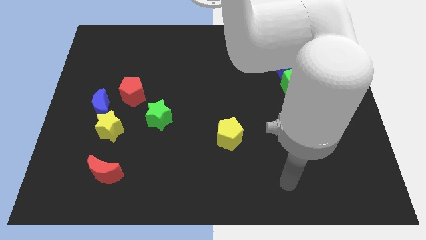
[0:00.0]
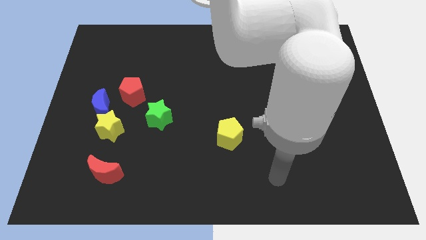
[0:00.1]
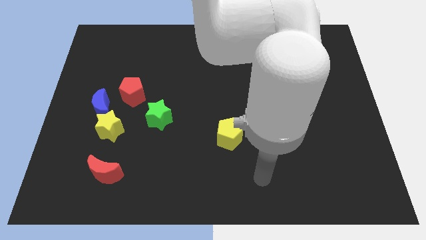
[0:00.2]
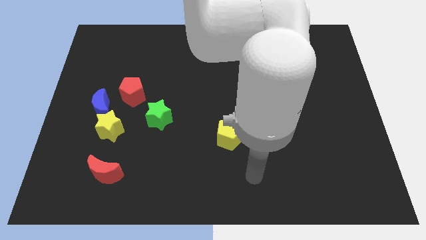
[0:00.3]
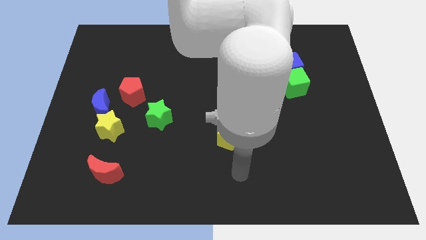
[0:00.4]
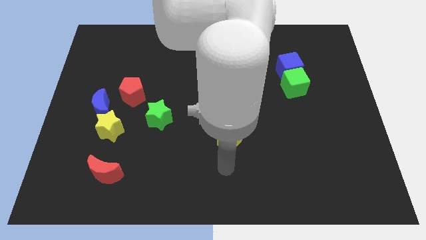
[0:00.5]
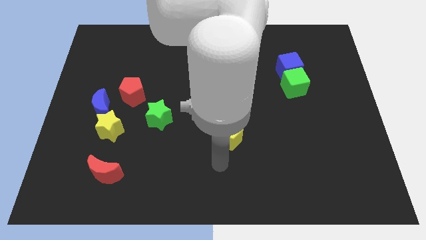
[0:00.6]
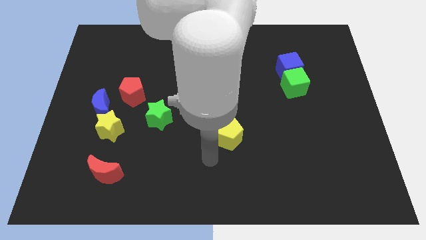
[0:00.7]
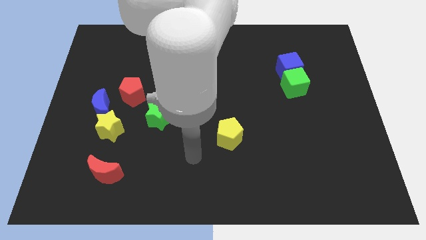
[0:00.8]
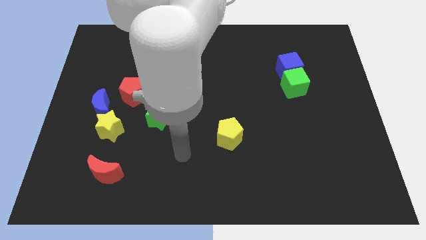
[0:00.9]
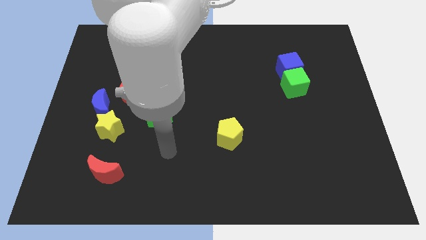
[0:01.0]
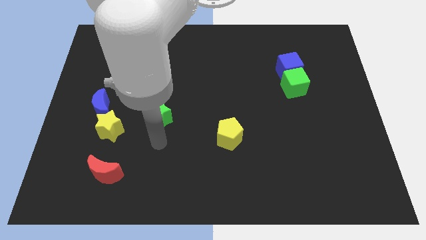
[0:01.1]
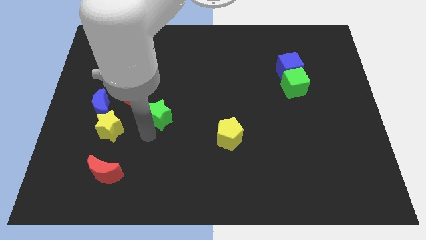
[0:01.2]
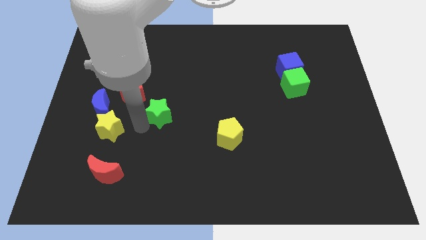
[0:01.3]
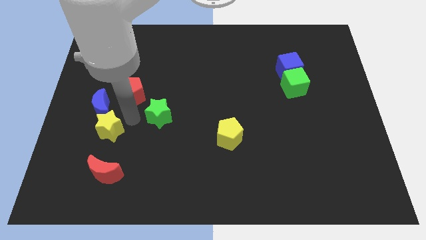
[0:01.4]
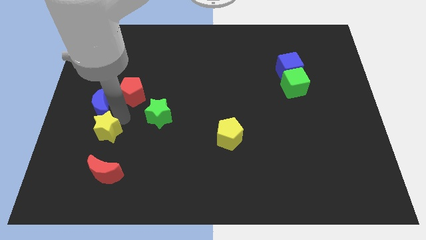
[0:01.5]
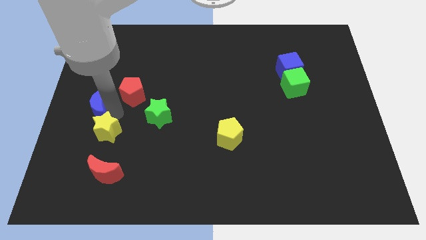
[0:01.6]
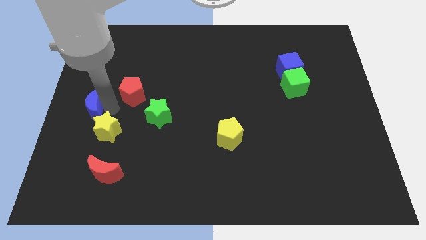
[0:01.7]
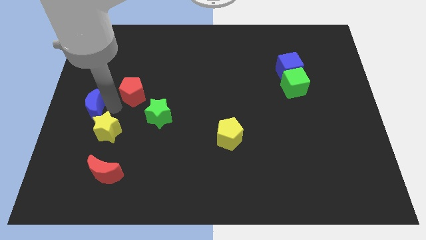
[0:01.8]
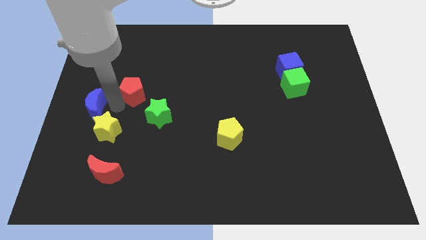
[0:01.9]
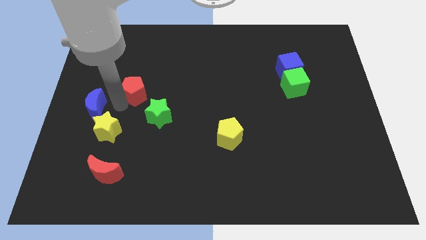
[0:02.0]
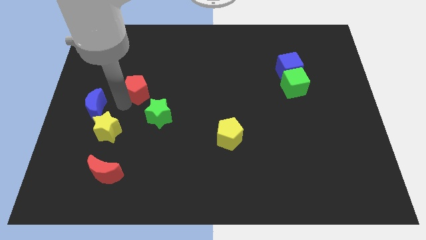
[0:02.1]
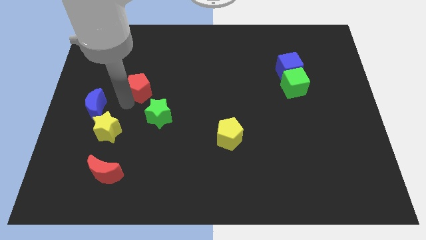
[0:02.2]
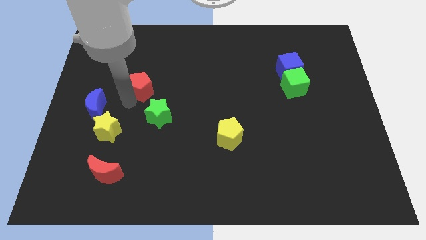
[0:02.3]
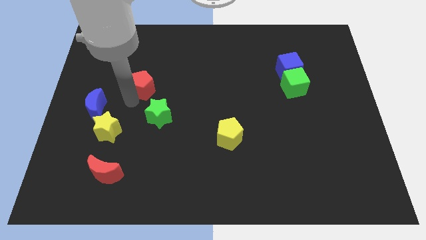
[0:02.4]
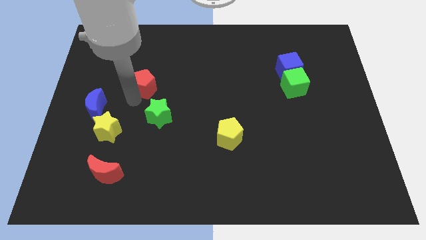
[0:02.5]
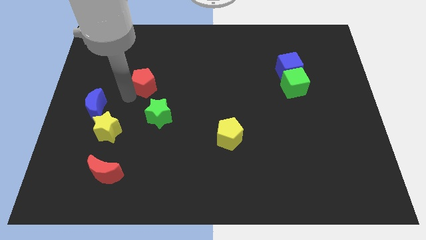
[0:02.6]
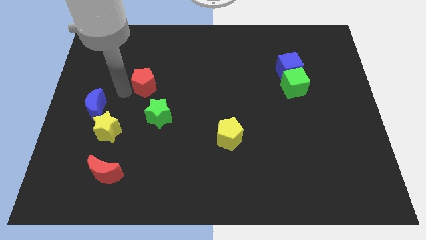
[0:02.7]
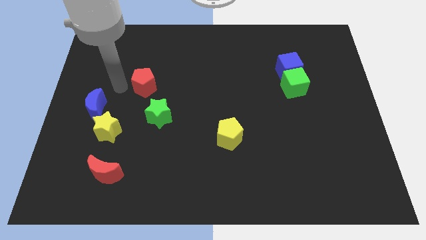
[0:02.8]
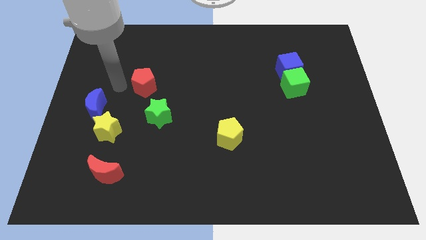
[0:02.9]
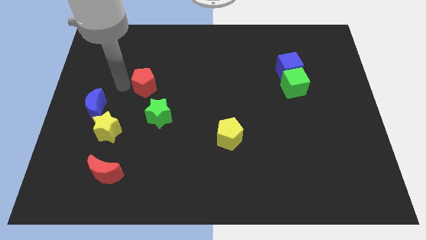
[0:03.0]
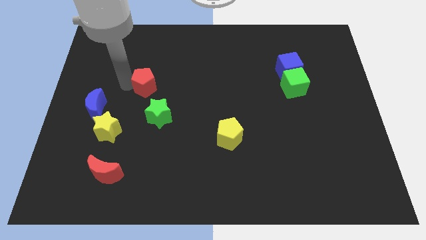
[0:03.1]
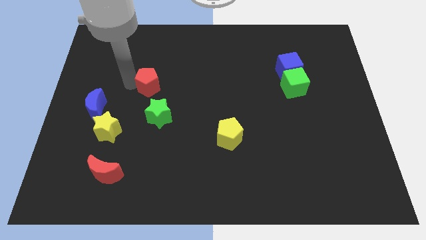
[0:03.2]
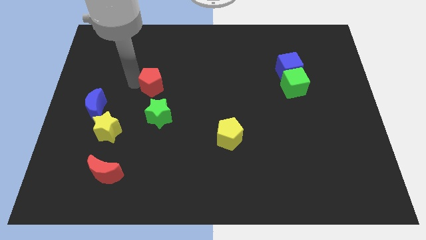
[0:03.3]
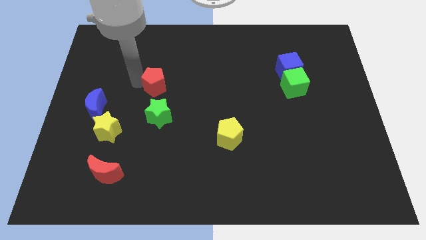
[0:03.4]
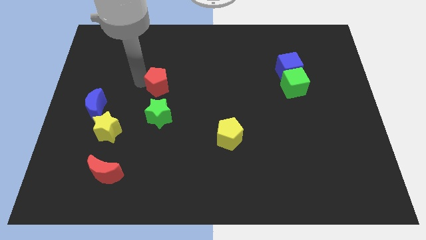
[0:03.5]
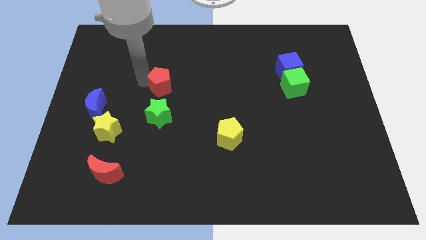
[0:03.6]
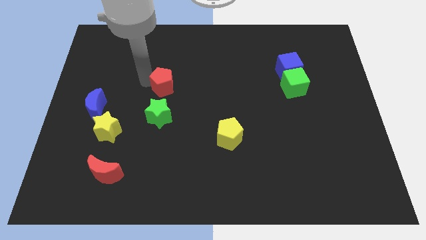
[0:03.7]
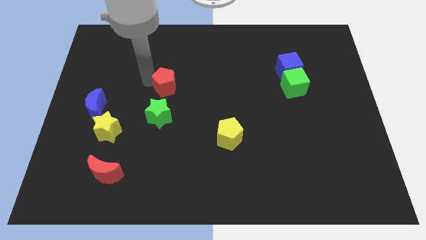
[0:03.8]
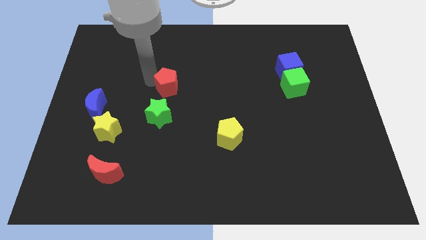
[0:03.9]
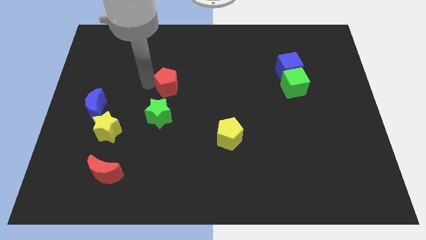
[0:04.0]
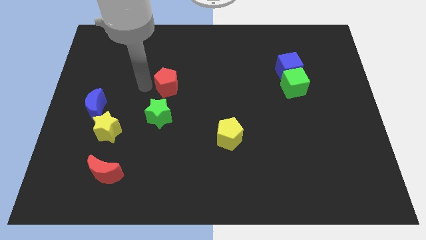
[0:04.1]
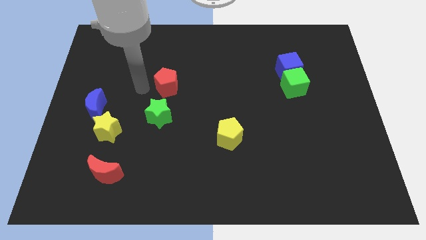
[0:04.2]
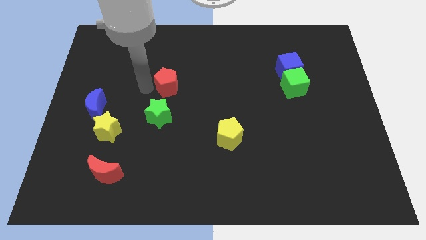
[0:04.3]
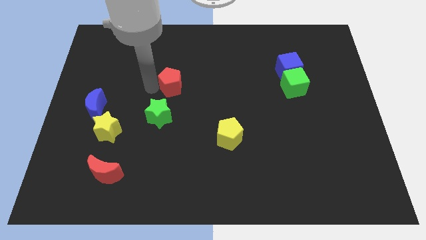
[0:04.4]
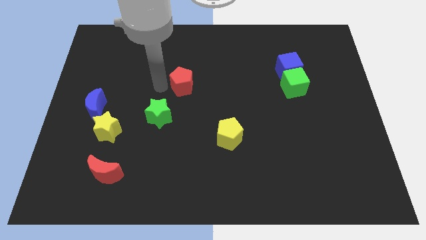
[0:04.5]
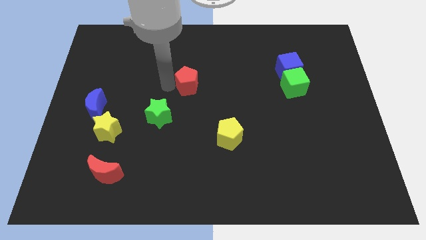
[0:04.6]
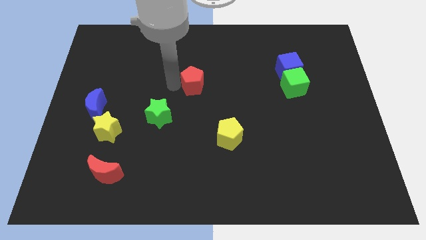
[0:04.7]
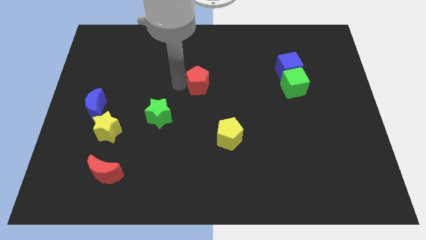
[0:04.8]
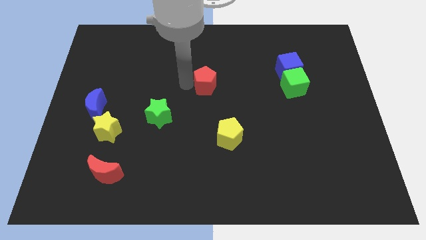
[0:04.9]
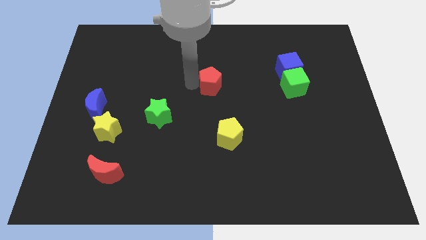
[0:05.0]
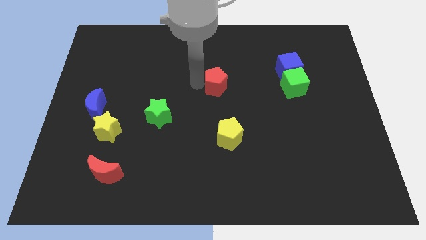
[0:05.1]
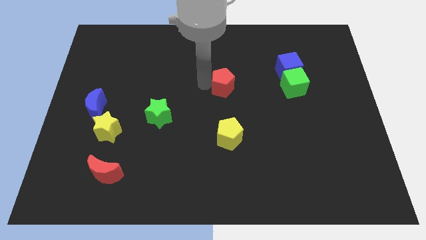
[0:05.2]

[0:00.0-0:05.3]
slide the red pentagon to the right

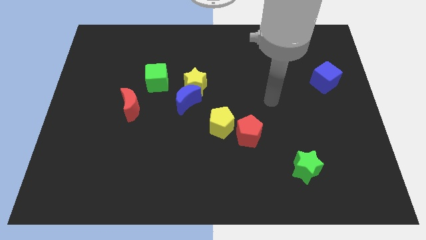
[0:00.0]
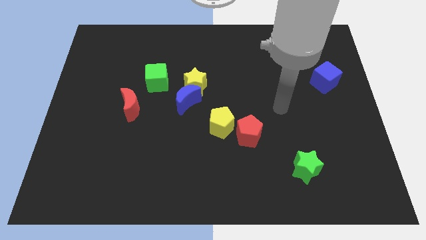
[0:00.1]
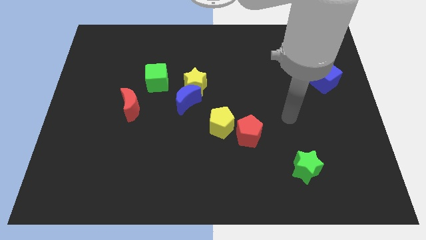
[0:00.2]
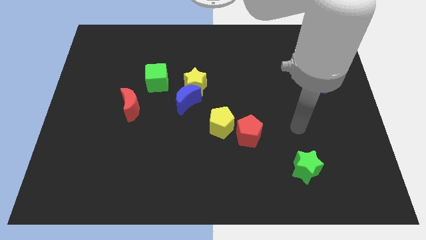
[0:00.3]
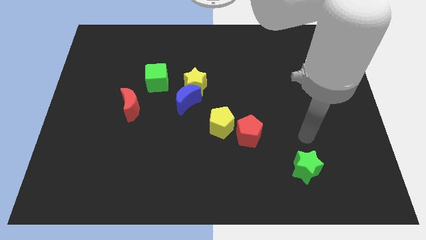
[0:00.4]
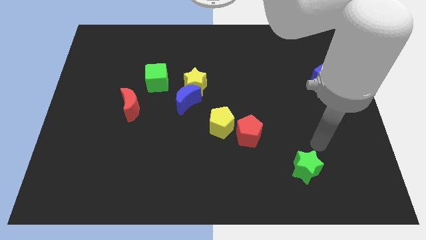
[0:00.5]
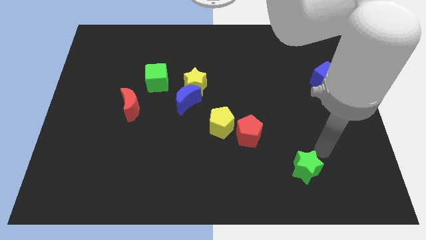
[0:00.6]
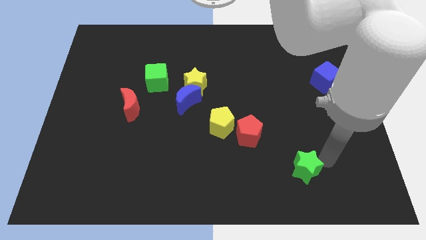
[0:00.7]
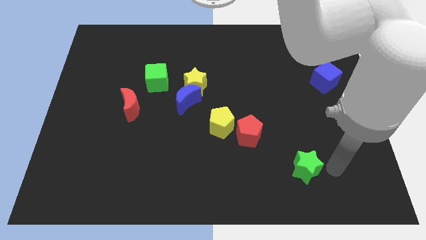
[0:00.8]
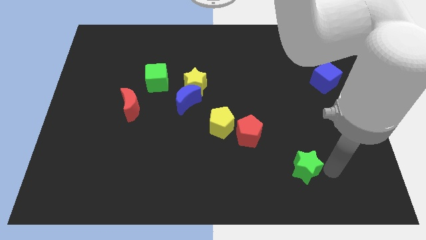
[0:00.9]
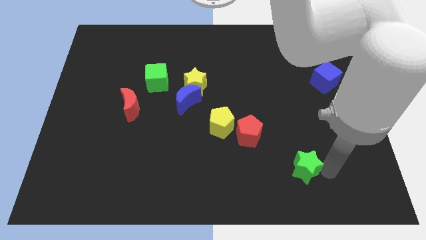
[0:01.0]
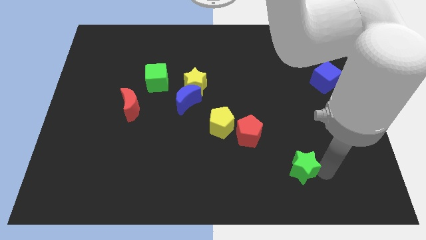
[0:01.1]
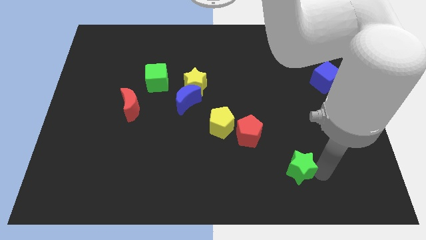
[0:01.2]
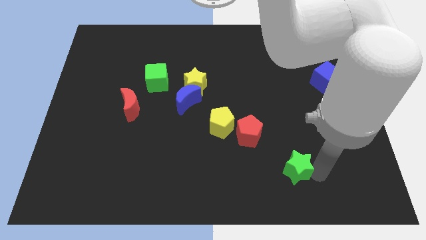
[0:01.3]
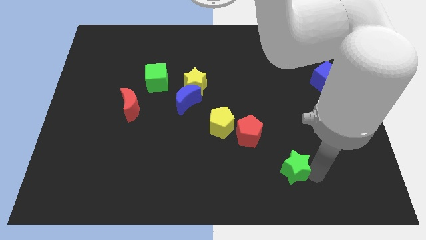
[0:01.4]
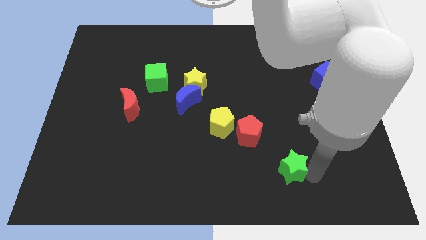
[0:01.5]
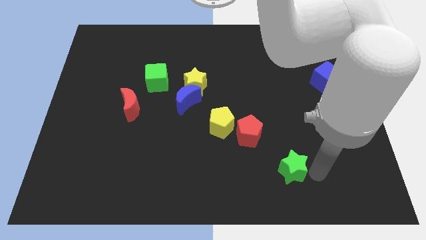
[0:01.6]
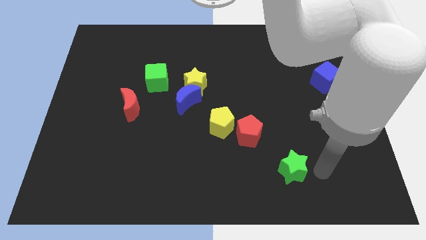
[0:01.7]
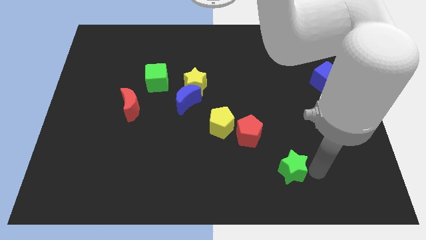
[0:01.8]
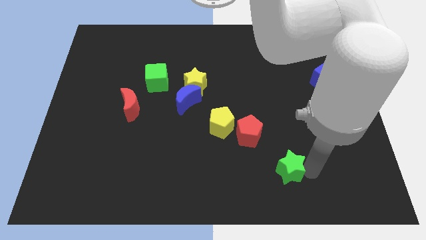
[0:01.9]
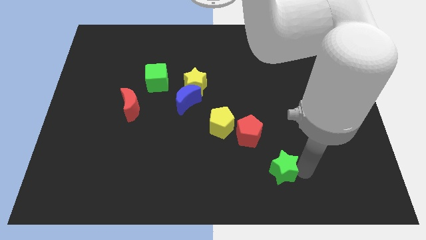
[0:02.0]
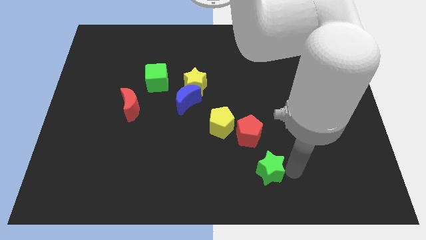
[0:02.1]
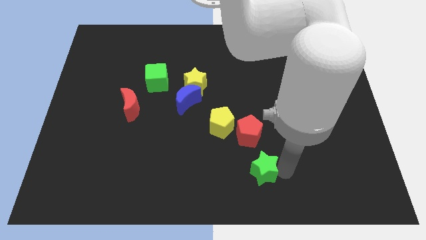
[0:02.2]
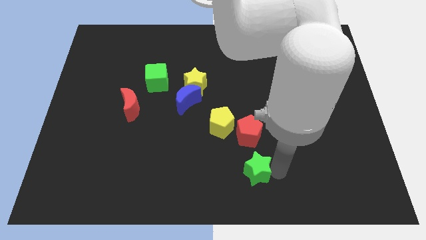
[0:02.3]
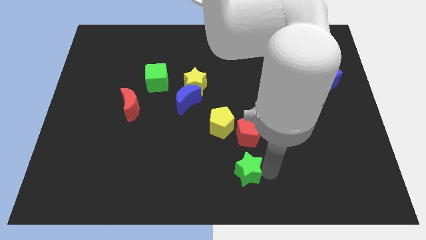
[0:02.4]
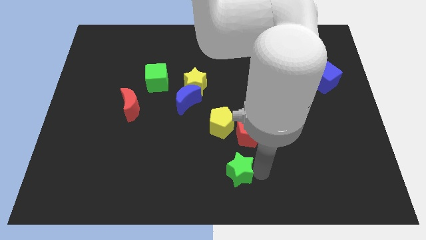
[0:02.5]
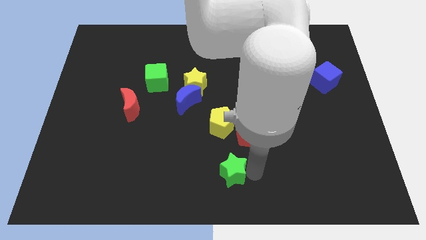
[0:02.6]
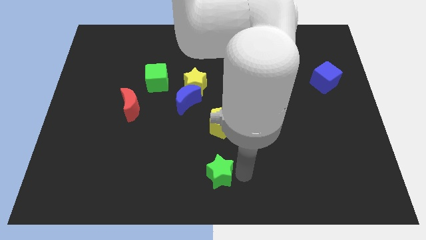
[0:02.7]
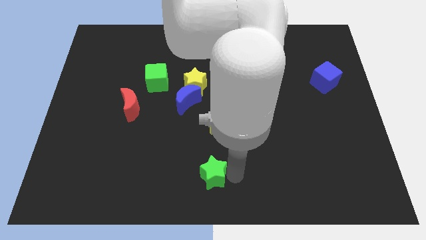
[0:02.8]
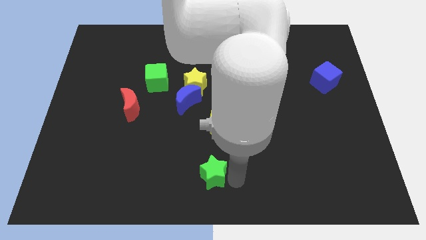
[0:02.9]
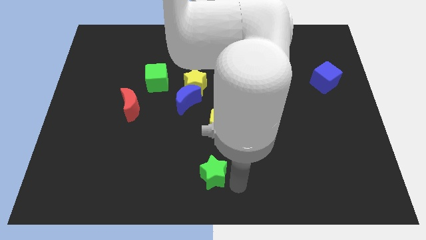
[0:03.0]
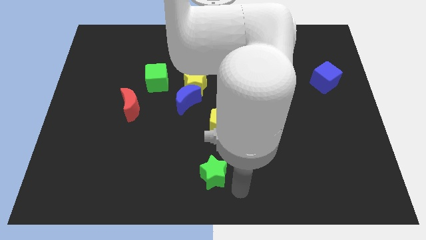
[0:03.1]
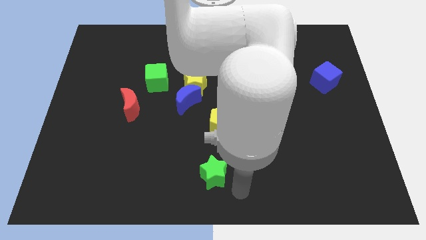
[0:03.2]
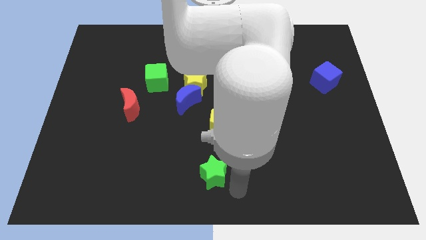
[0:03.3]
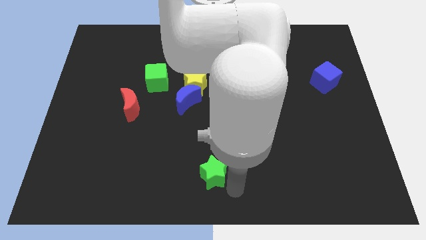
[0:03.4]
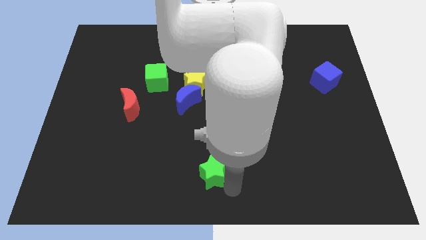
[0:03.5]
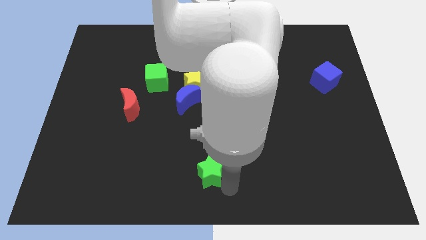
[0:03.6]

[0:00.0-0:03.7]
slide the green star to the left
